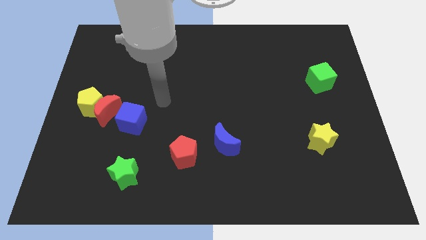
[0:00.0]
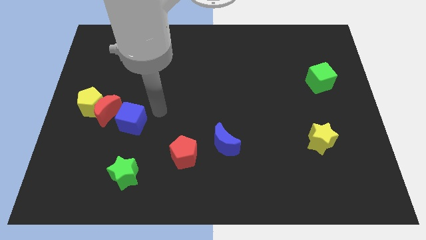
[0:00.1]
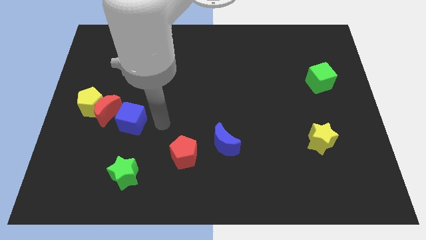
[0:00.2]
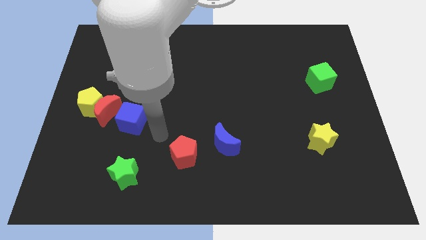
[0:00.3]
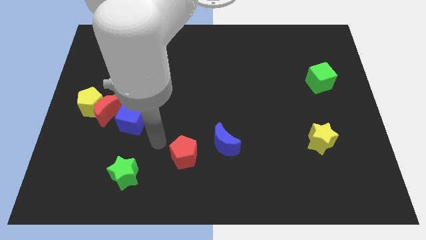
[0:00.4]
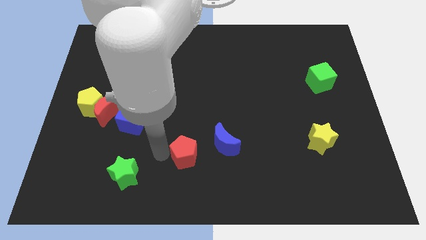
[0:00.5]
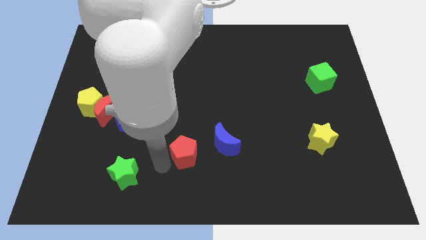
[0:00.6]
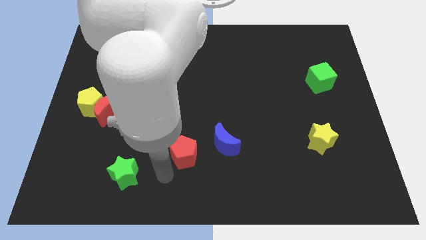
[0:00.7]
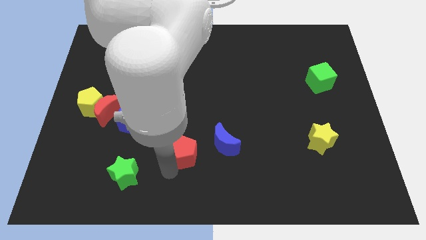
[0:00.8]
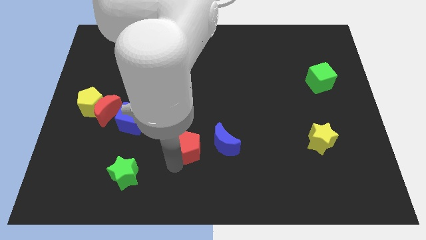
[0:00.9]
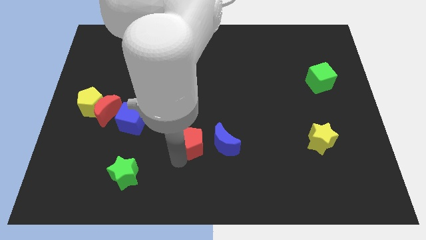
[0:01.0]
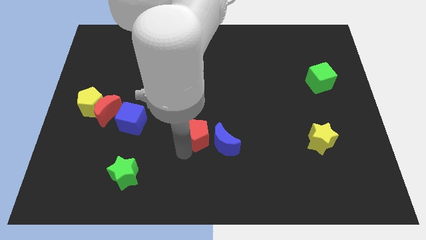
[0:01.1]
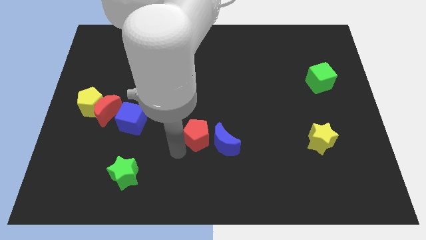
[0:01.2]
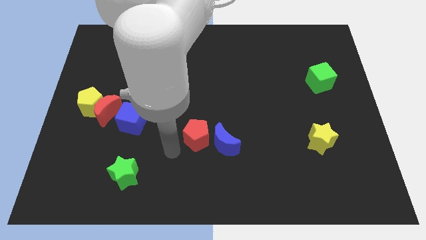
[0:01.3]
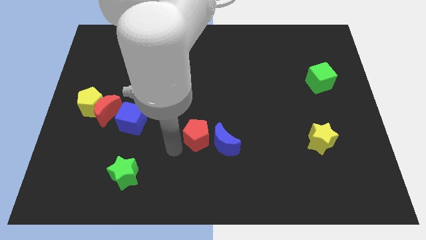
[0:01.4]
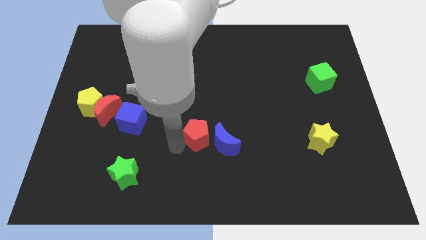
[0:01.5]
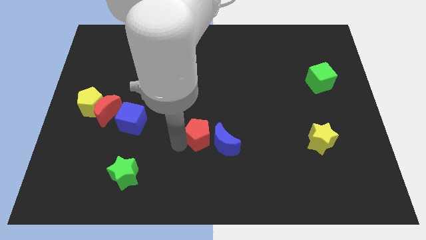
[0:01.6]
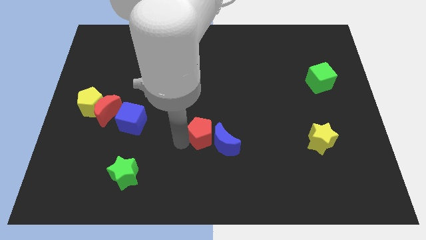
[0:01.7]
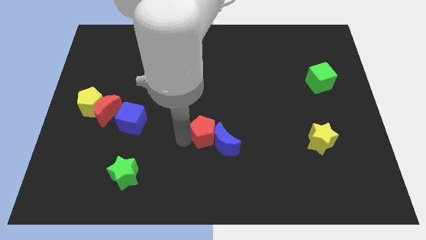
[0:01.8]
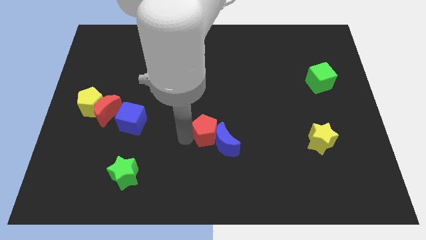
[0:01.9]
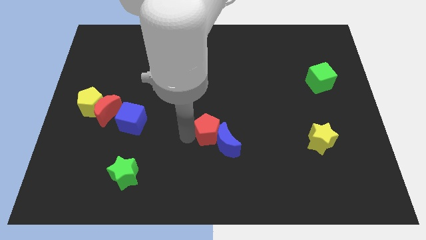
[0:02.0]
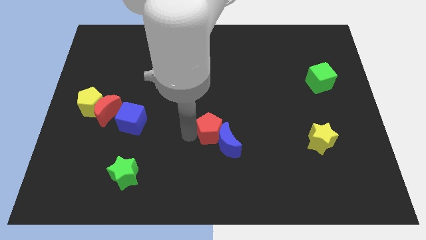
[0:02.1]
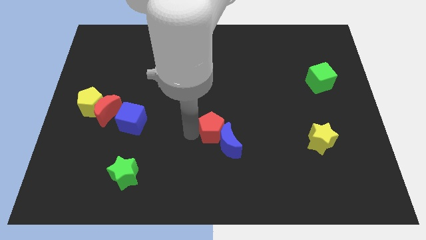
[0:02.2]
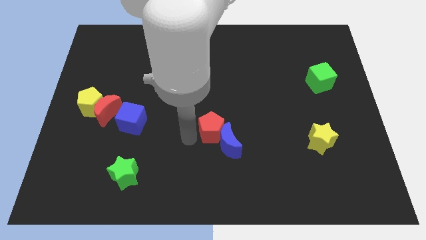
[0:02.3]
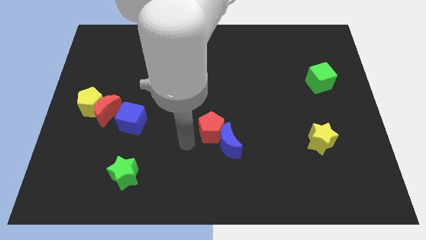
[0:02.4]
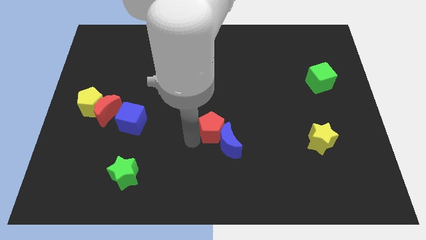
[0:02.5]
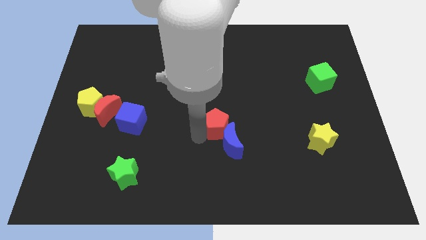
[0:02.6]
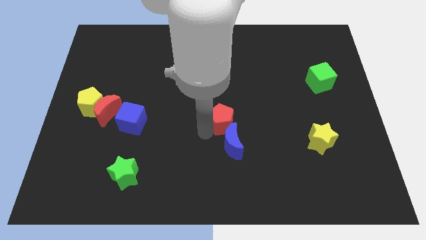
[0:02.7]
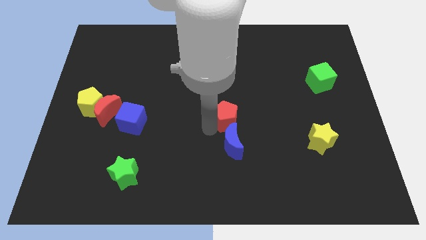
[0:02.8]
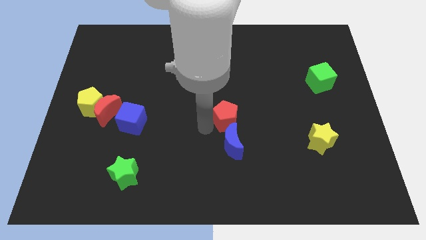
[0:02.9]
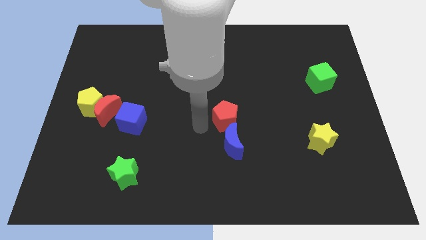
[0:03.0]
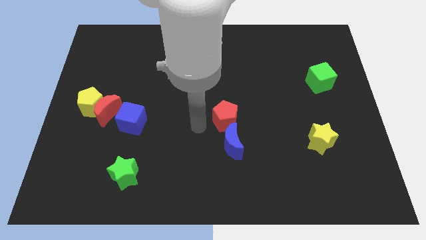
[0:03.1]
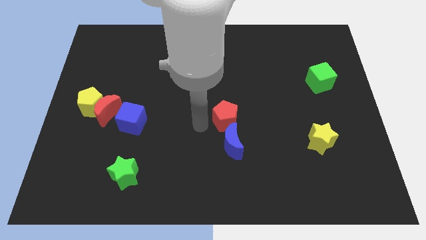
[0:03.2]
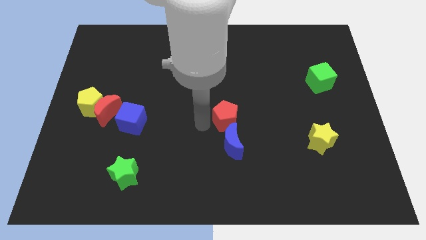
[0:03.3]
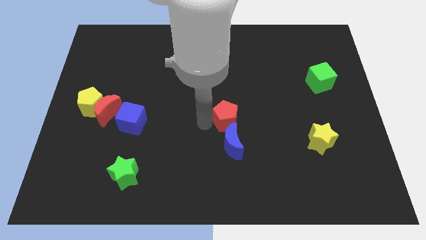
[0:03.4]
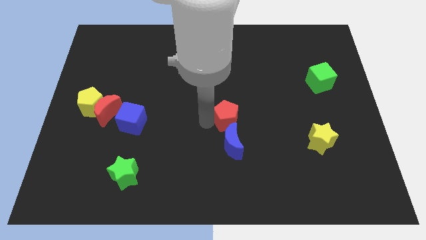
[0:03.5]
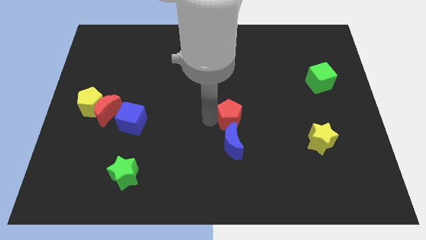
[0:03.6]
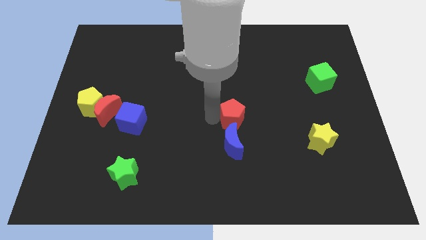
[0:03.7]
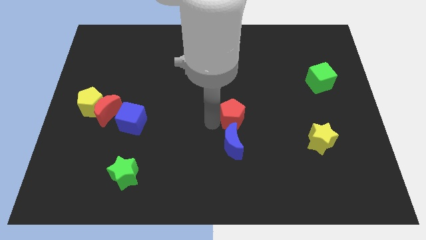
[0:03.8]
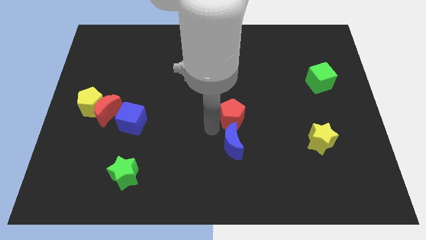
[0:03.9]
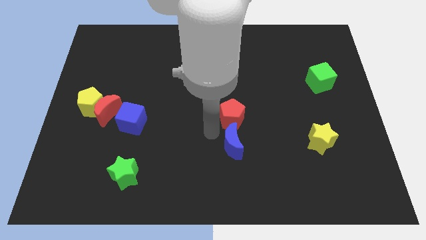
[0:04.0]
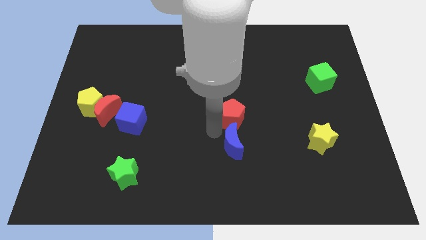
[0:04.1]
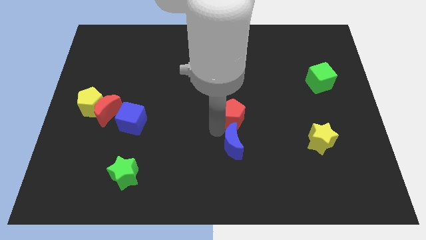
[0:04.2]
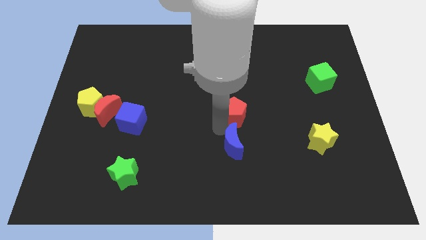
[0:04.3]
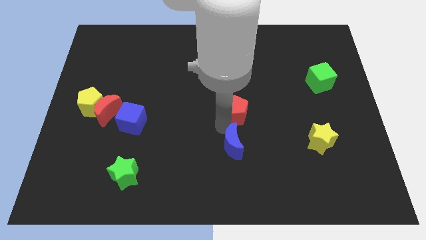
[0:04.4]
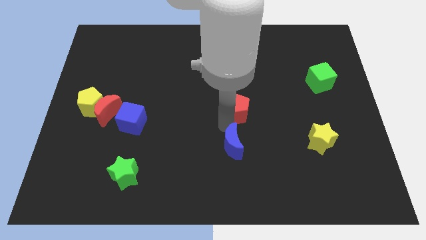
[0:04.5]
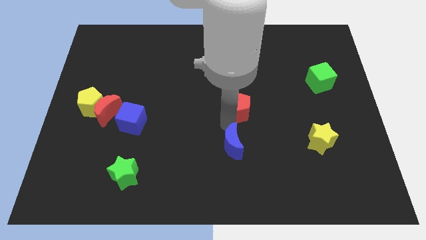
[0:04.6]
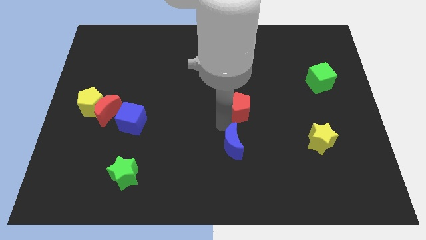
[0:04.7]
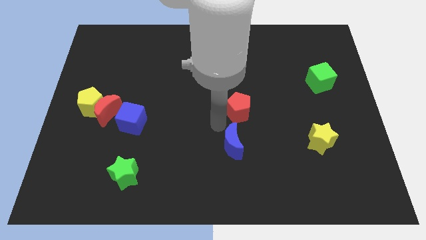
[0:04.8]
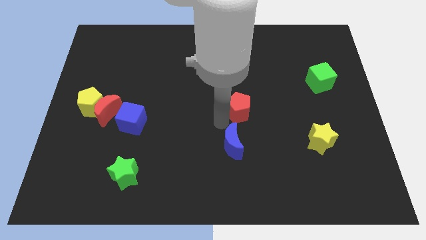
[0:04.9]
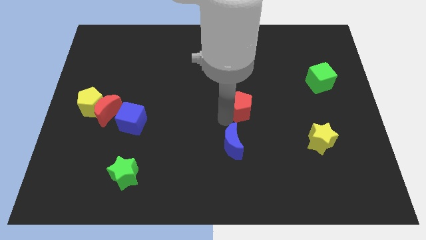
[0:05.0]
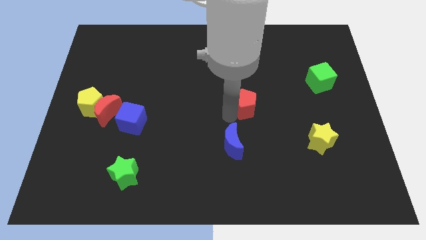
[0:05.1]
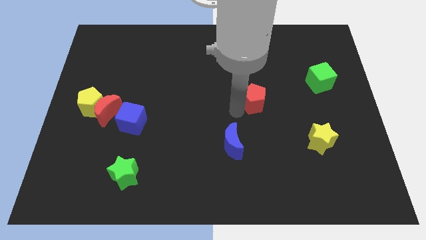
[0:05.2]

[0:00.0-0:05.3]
push the red pentagon diagonally upwards and to the right

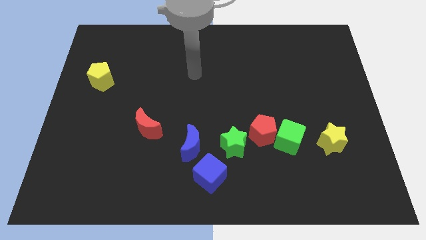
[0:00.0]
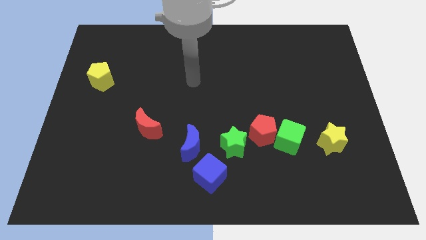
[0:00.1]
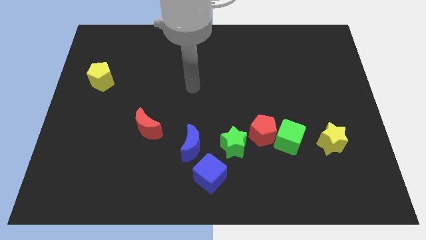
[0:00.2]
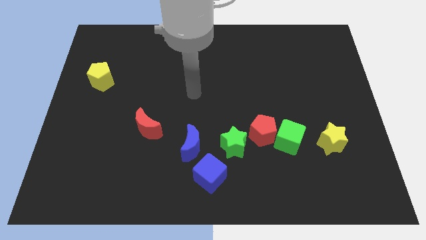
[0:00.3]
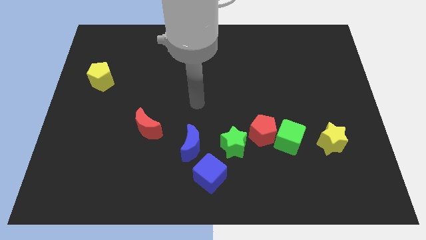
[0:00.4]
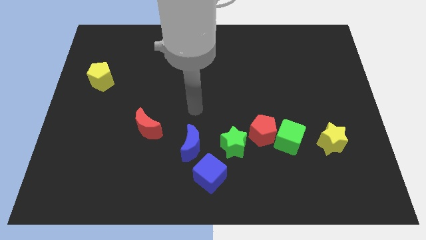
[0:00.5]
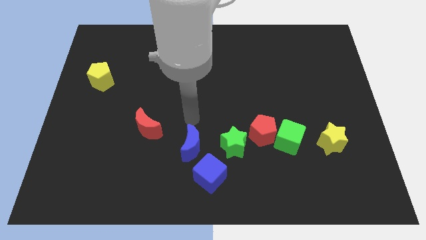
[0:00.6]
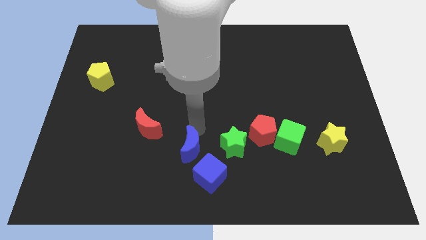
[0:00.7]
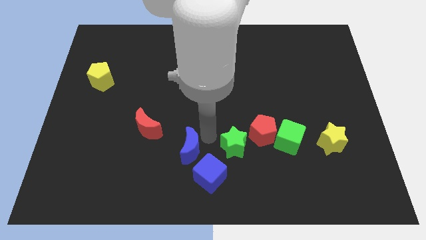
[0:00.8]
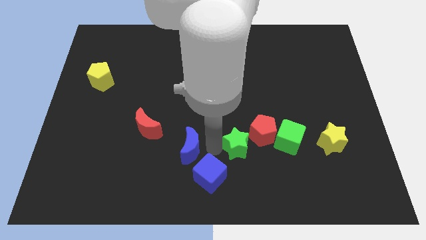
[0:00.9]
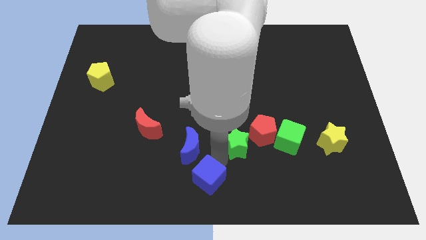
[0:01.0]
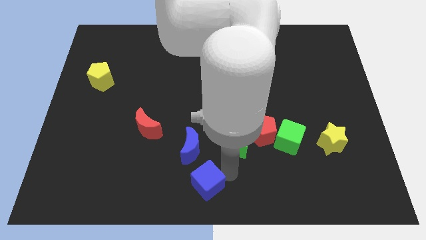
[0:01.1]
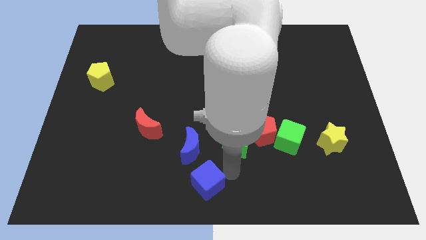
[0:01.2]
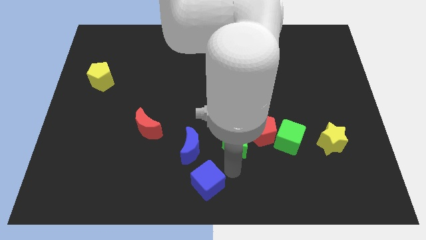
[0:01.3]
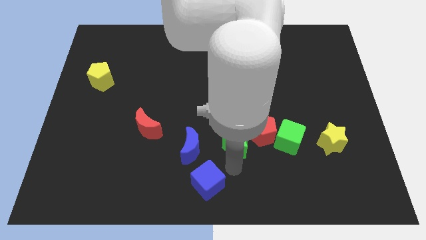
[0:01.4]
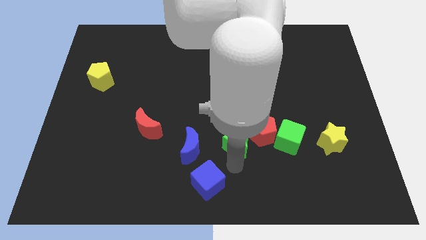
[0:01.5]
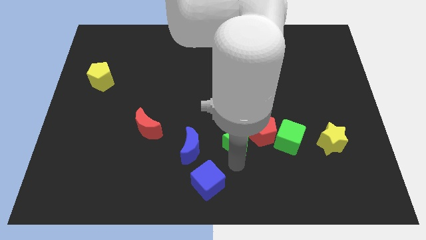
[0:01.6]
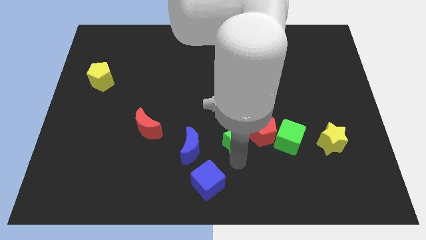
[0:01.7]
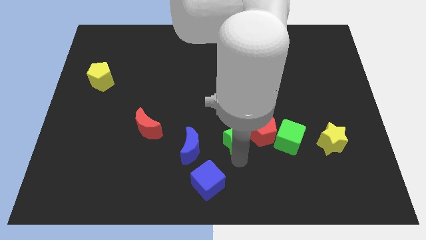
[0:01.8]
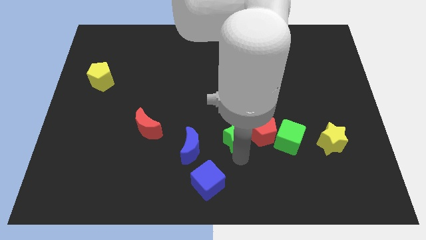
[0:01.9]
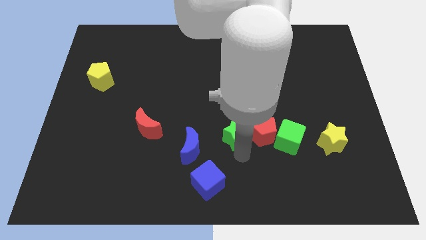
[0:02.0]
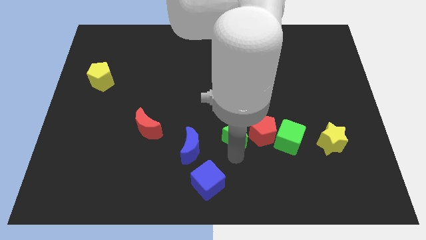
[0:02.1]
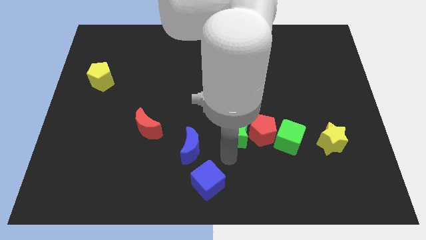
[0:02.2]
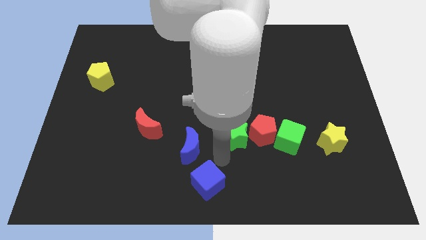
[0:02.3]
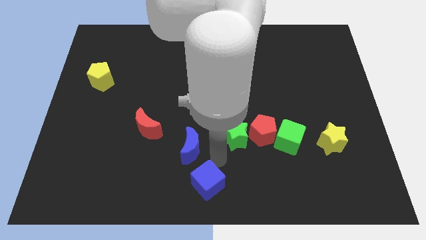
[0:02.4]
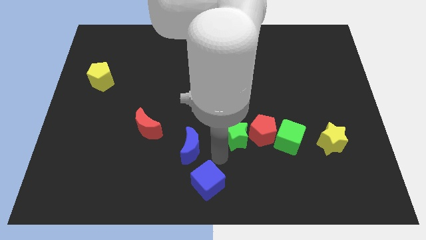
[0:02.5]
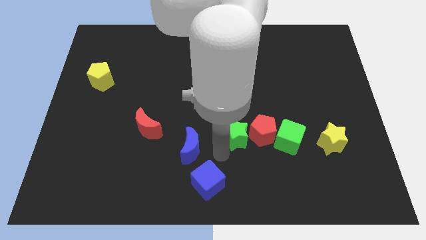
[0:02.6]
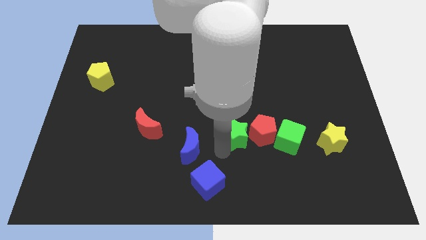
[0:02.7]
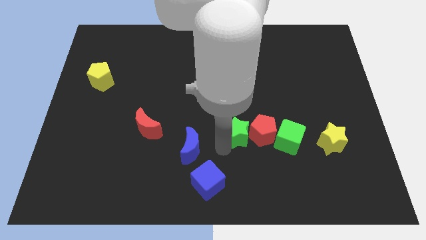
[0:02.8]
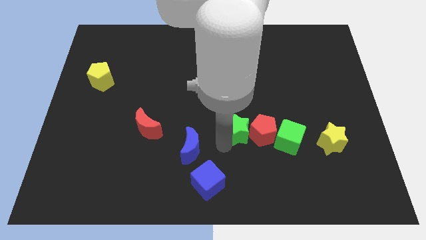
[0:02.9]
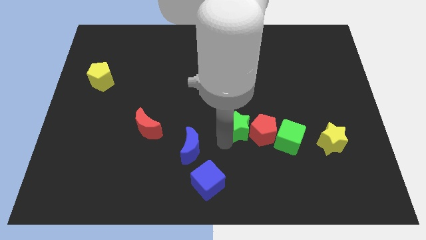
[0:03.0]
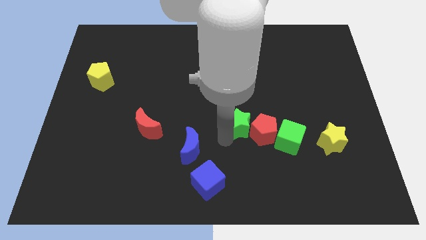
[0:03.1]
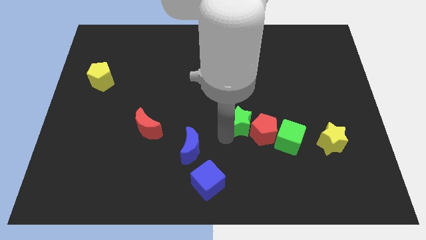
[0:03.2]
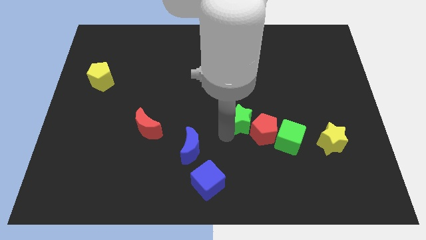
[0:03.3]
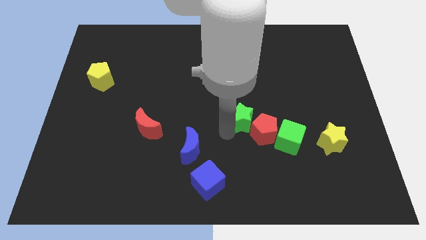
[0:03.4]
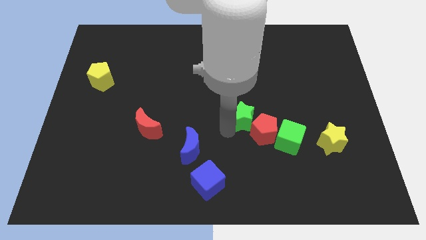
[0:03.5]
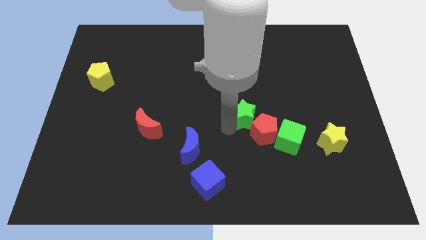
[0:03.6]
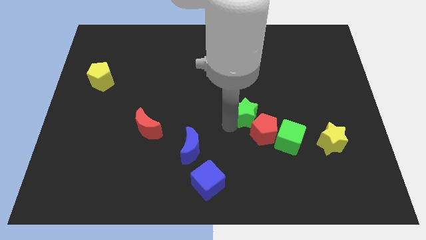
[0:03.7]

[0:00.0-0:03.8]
slightly move the green star up and to the right diagonally
